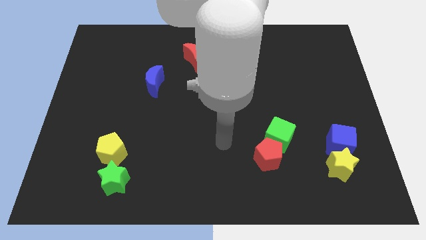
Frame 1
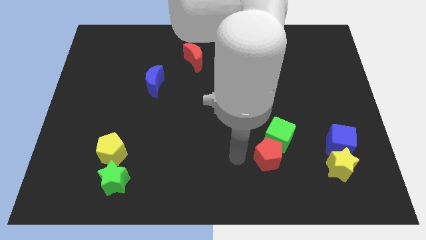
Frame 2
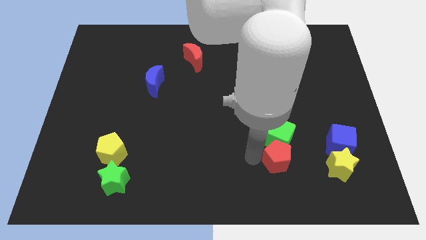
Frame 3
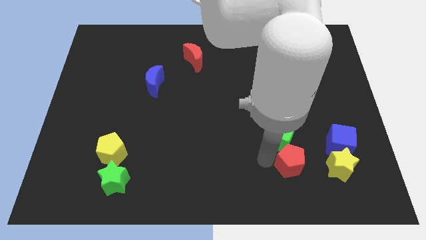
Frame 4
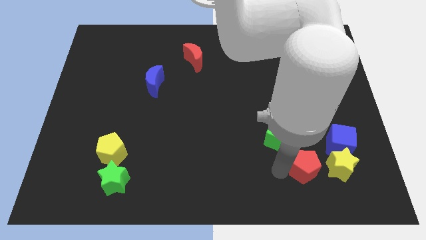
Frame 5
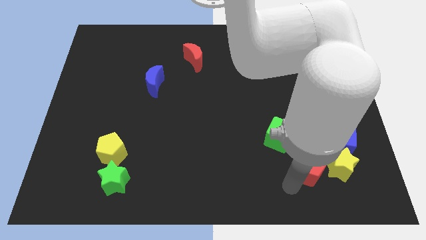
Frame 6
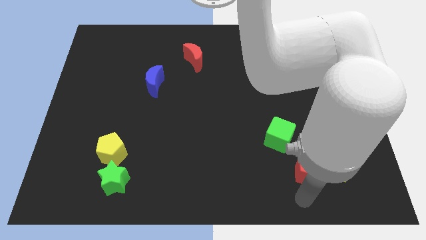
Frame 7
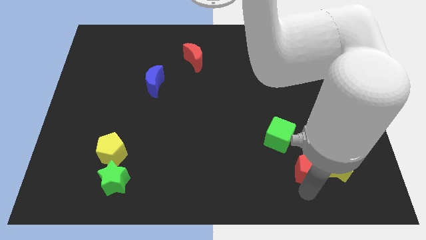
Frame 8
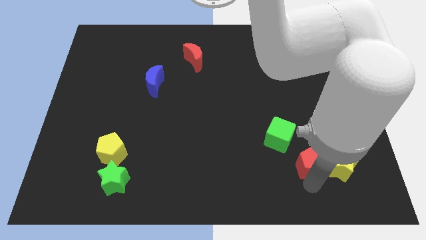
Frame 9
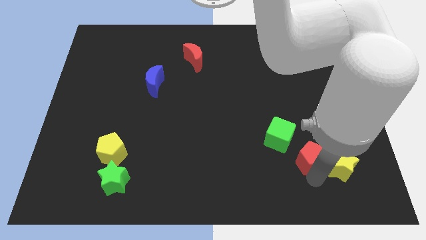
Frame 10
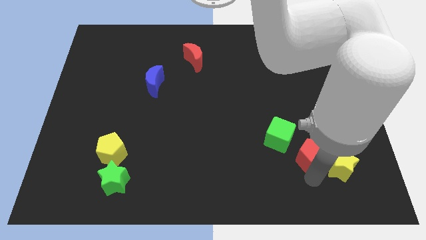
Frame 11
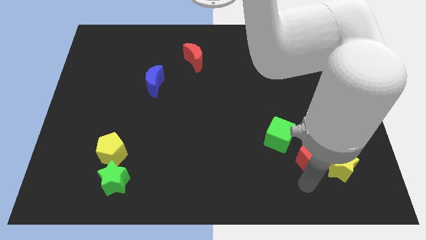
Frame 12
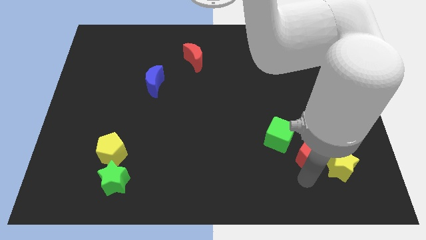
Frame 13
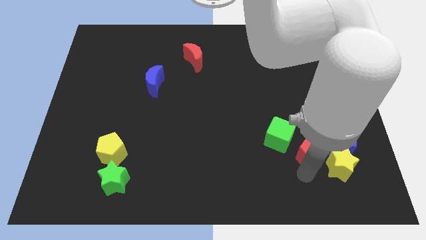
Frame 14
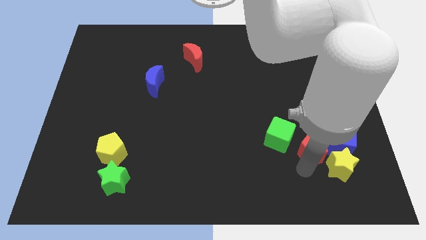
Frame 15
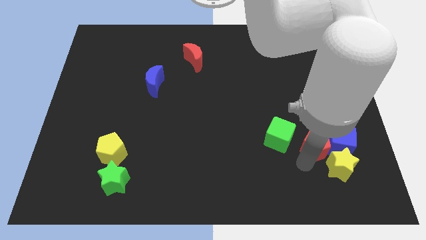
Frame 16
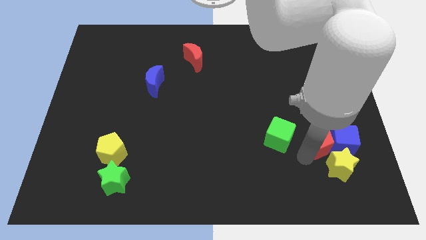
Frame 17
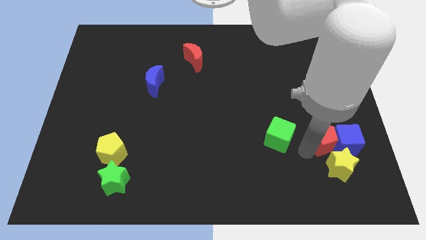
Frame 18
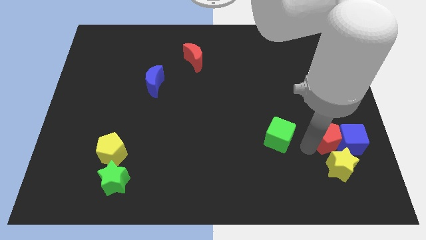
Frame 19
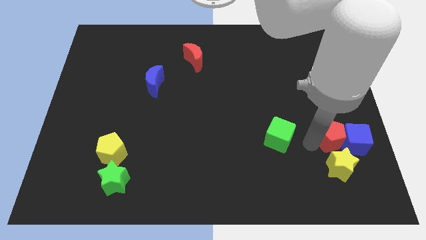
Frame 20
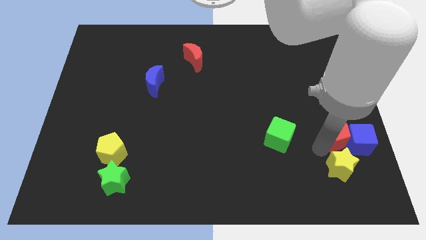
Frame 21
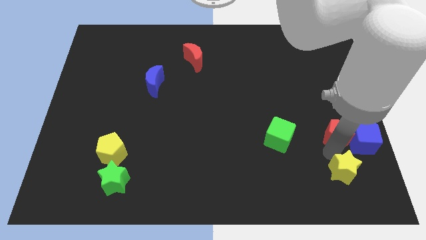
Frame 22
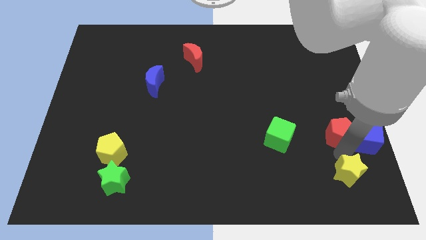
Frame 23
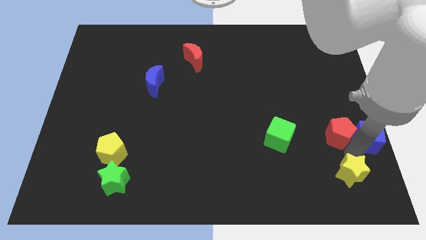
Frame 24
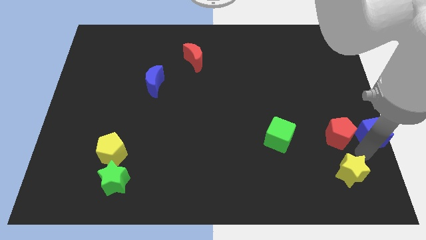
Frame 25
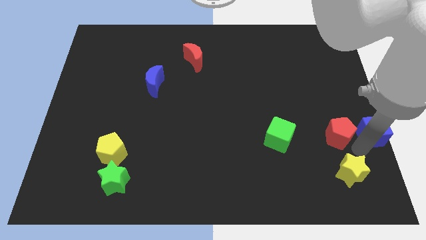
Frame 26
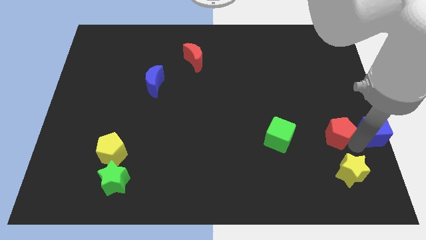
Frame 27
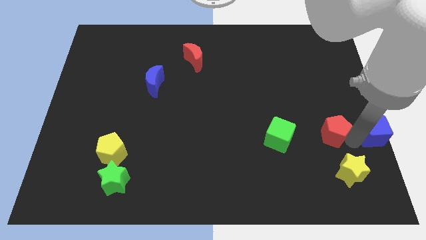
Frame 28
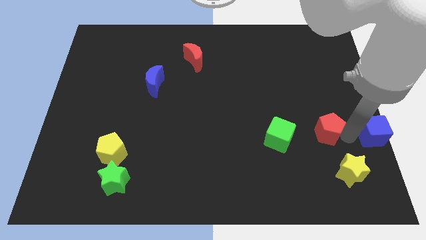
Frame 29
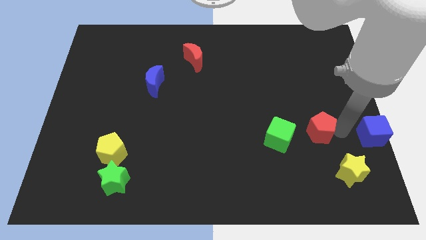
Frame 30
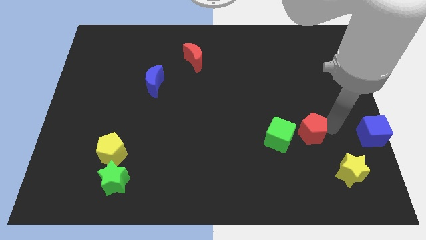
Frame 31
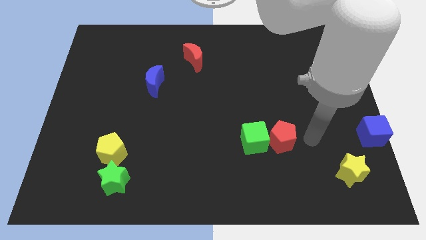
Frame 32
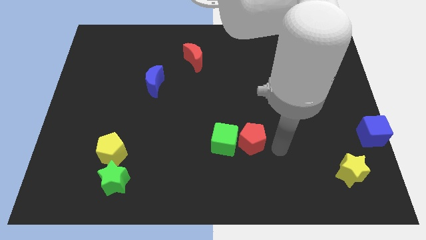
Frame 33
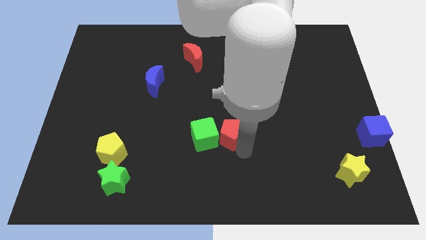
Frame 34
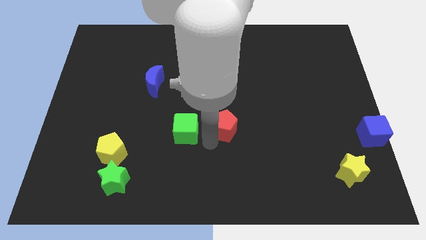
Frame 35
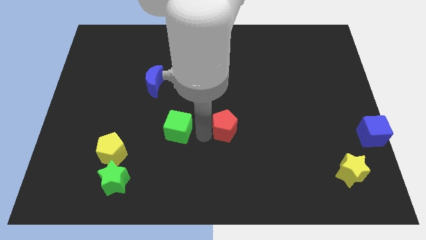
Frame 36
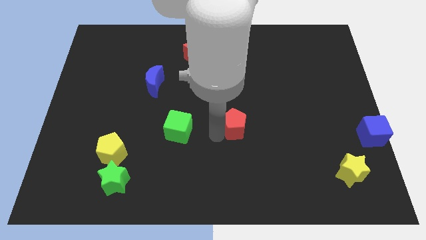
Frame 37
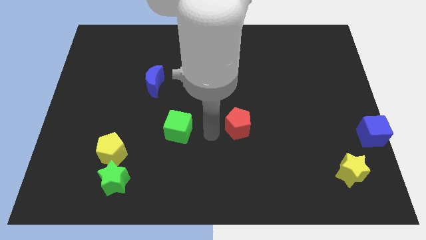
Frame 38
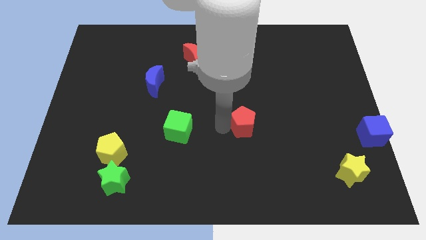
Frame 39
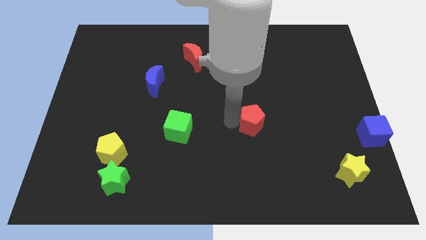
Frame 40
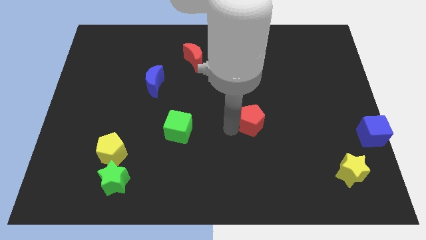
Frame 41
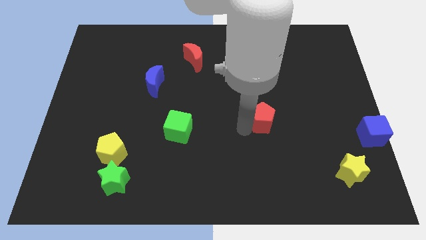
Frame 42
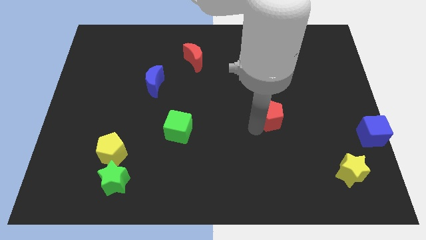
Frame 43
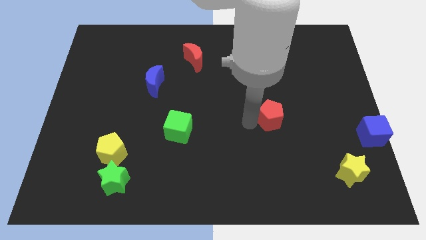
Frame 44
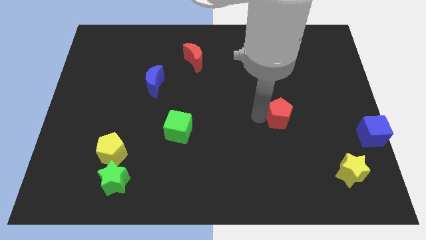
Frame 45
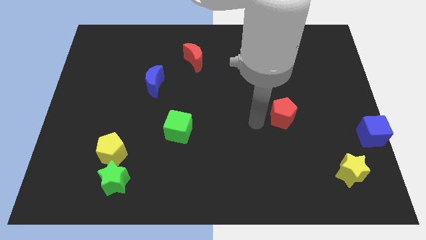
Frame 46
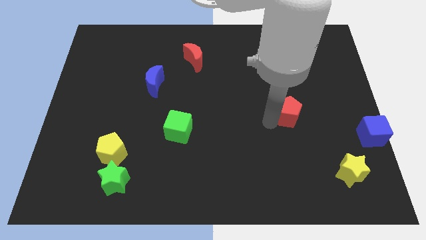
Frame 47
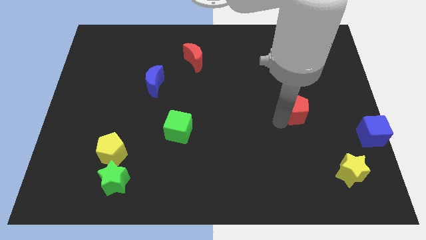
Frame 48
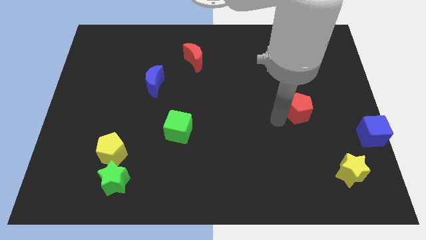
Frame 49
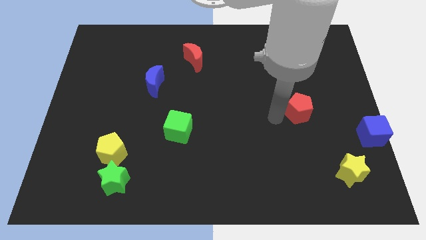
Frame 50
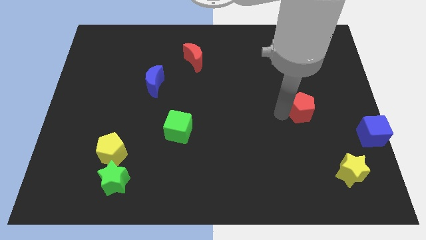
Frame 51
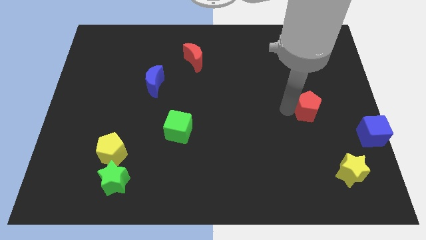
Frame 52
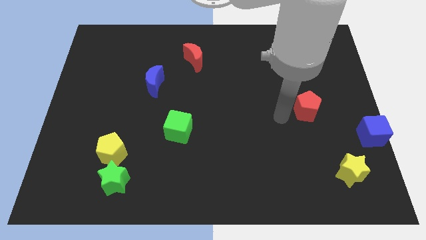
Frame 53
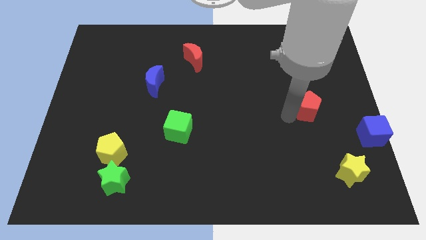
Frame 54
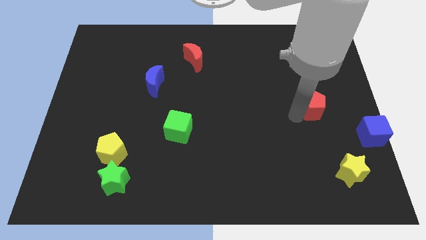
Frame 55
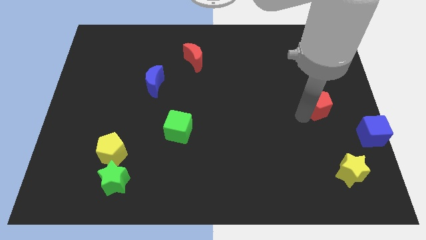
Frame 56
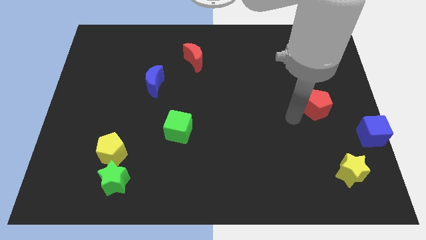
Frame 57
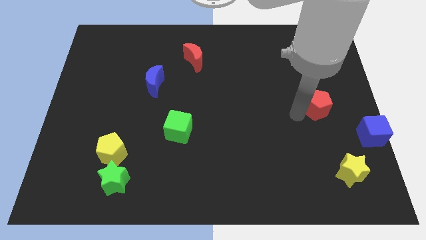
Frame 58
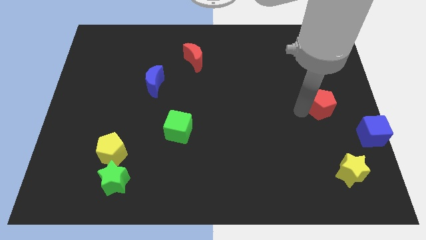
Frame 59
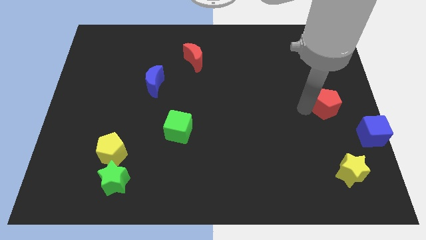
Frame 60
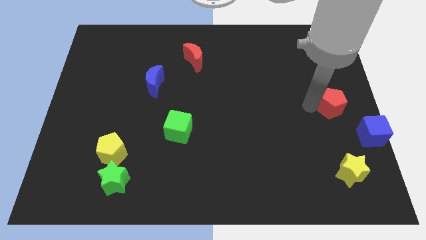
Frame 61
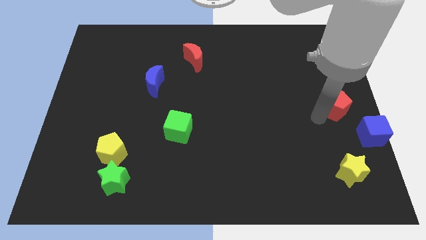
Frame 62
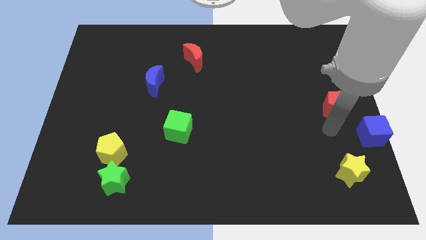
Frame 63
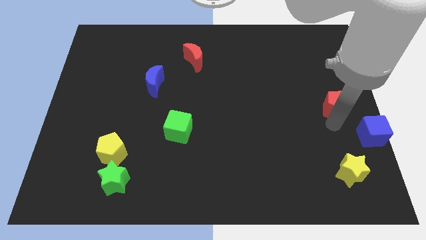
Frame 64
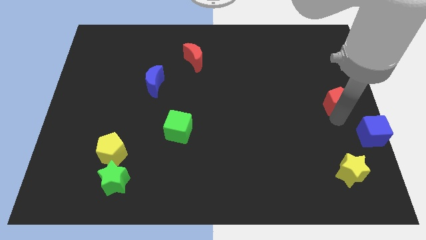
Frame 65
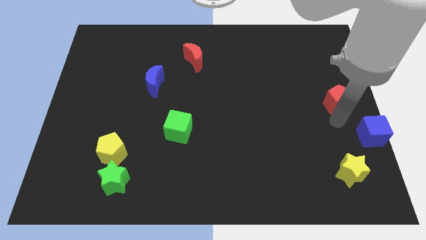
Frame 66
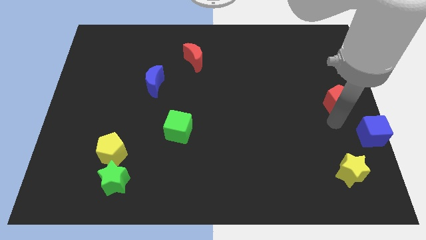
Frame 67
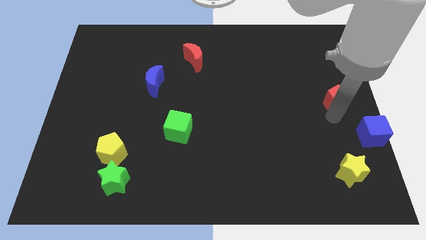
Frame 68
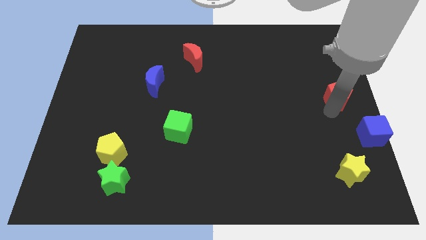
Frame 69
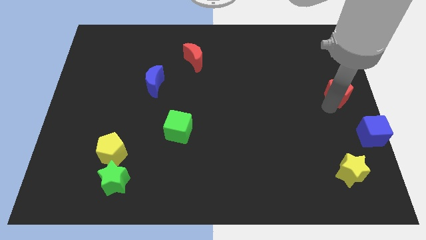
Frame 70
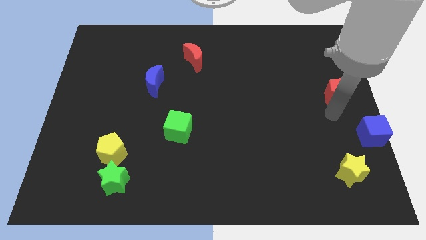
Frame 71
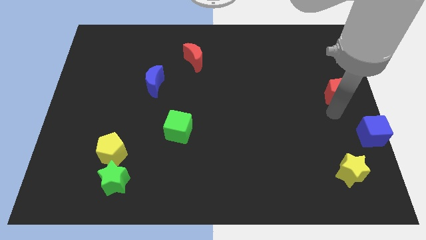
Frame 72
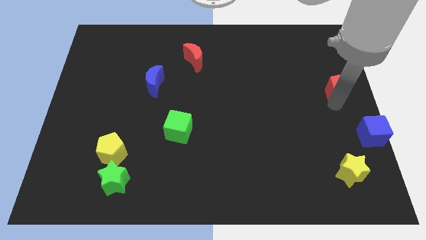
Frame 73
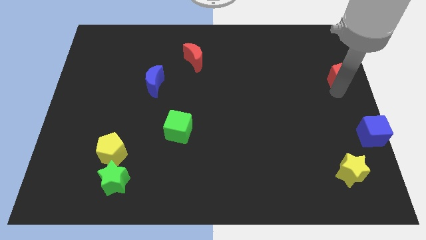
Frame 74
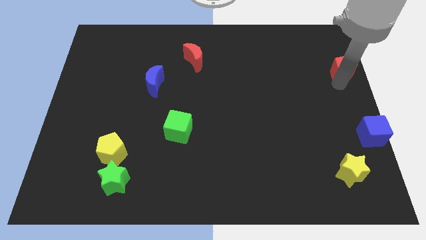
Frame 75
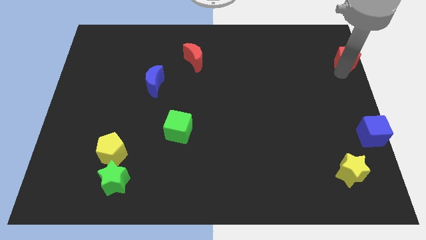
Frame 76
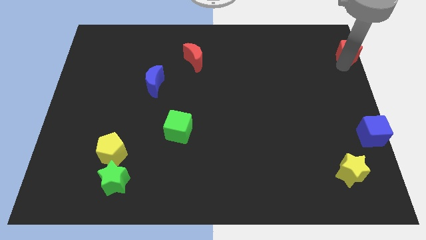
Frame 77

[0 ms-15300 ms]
put the red pentagon to the top right of the board
